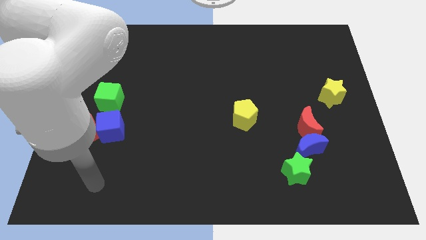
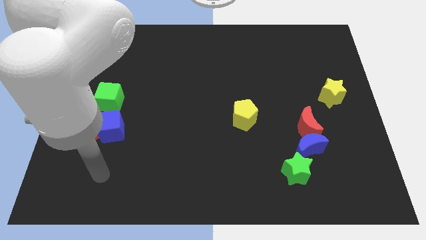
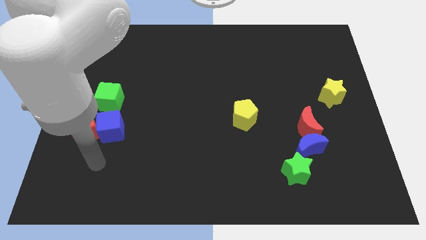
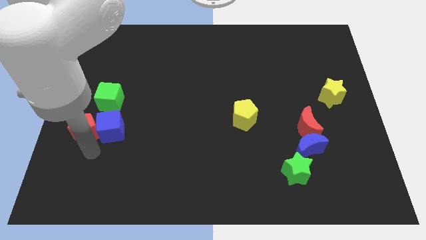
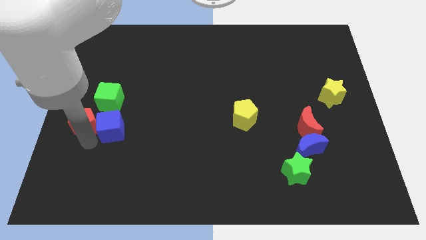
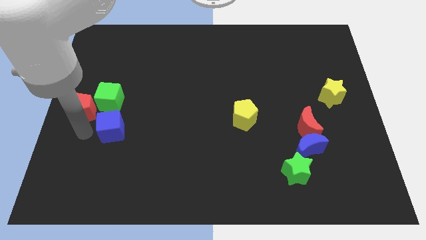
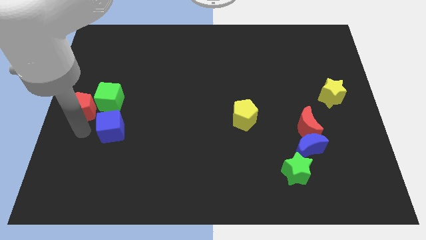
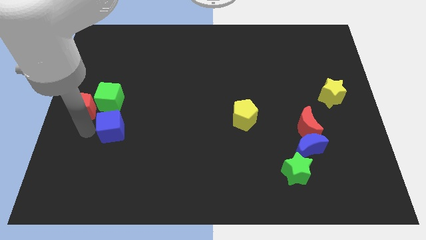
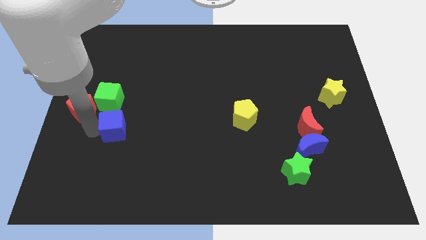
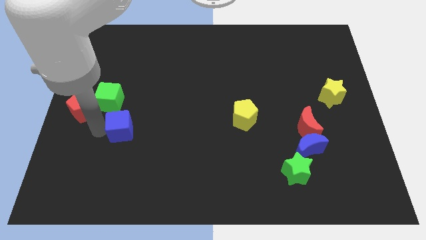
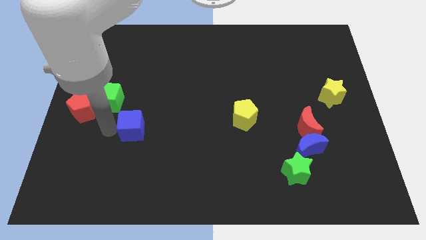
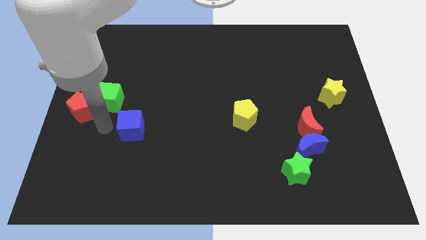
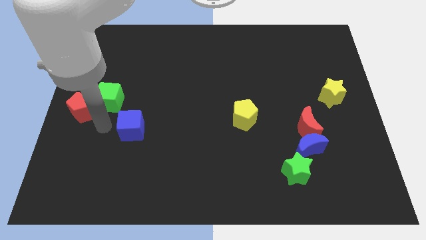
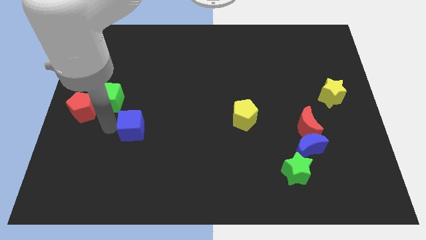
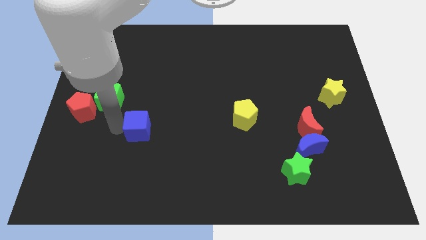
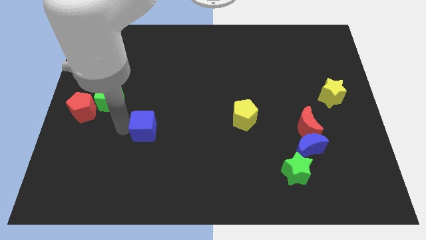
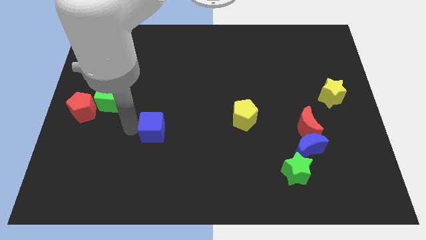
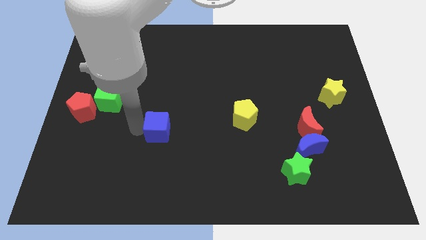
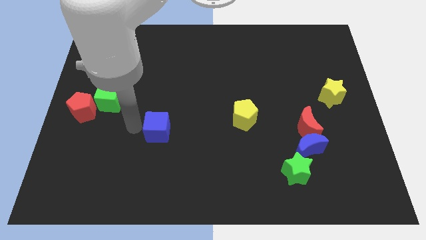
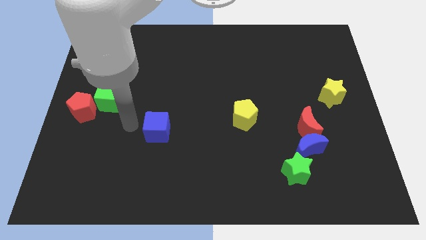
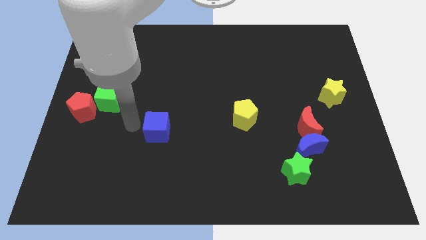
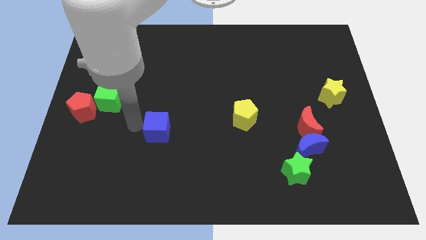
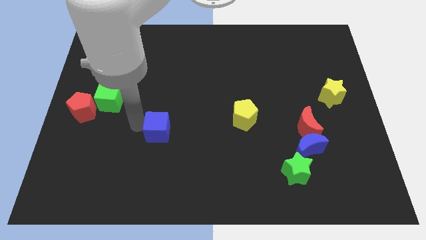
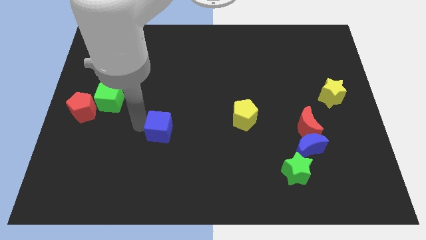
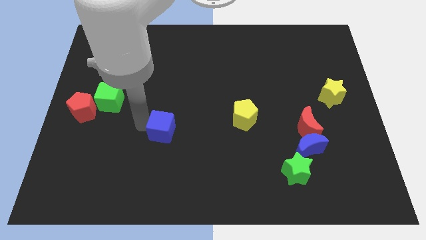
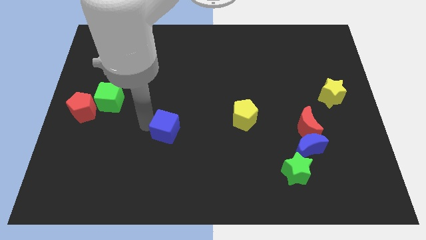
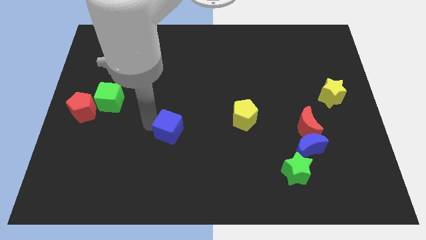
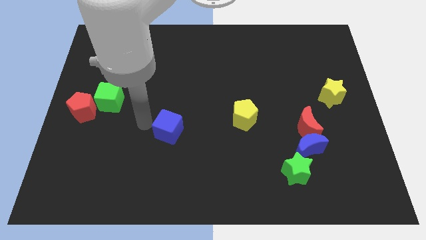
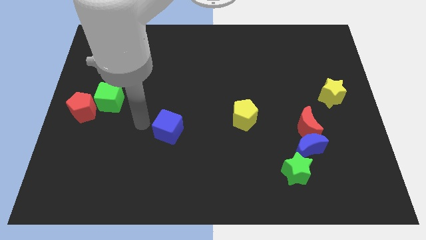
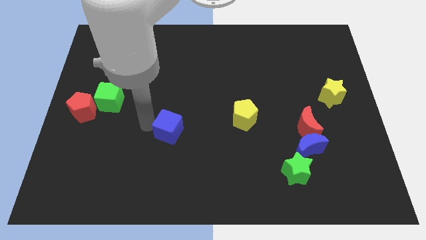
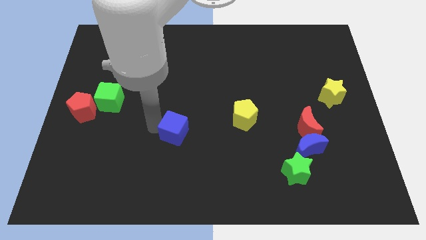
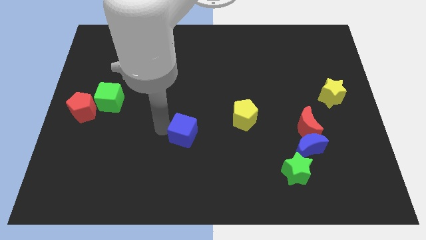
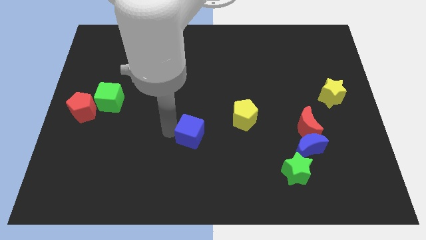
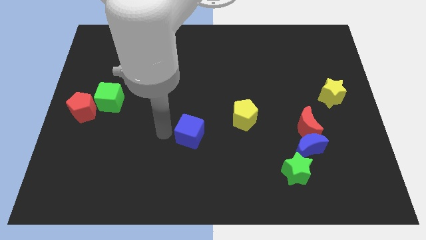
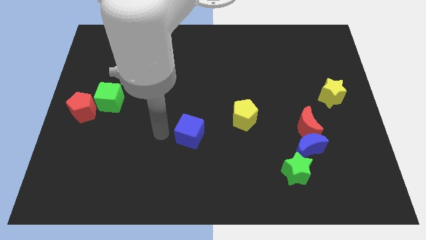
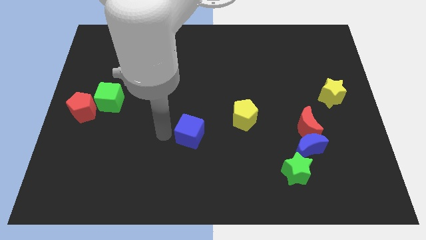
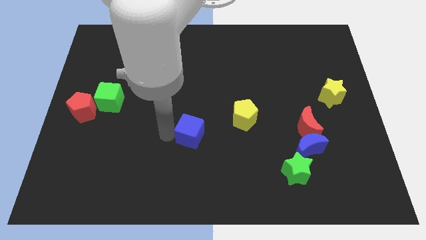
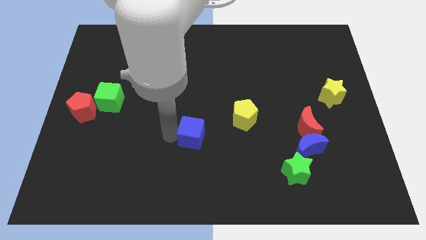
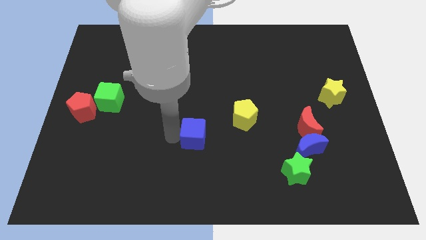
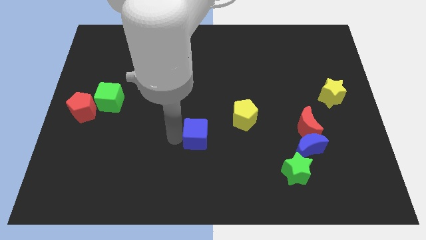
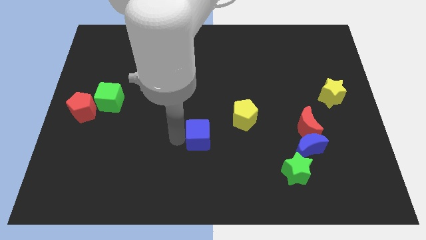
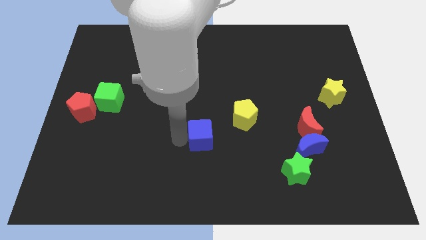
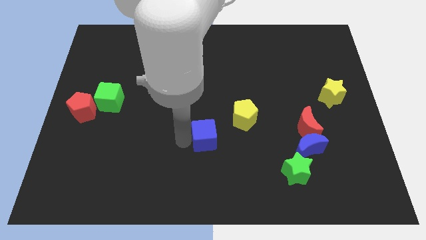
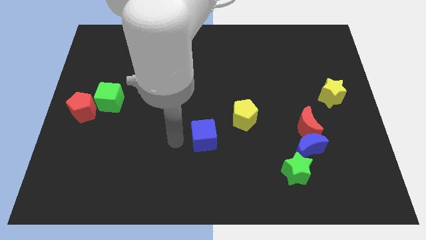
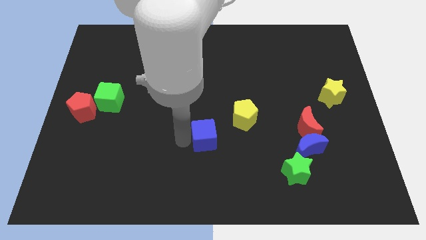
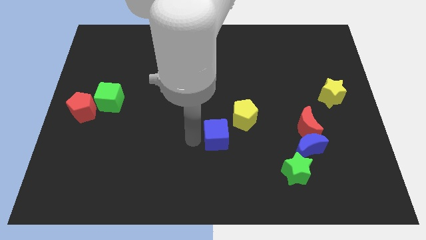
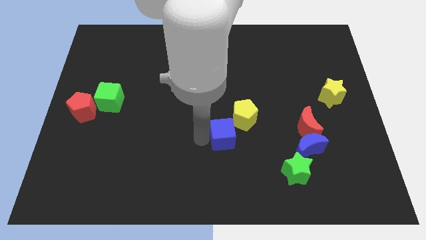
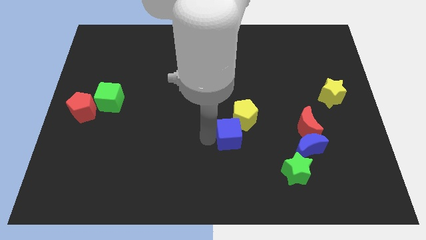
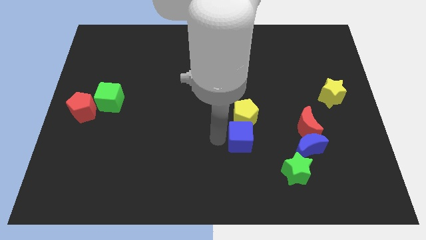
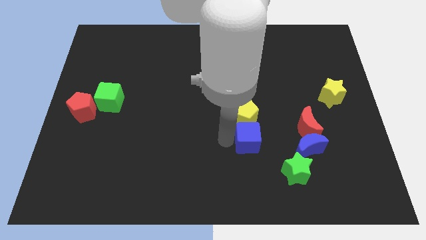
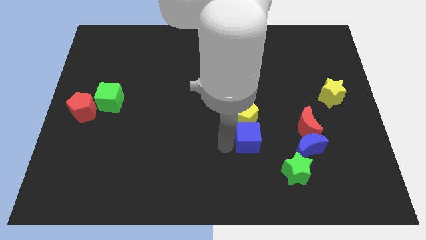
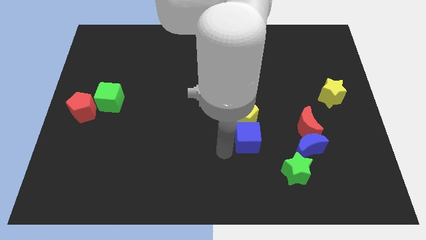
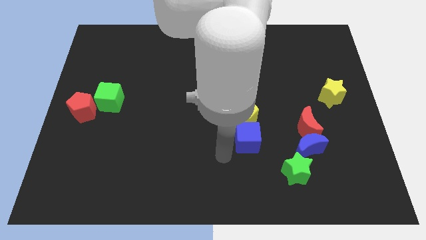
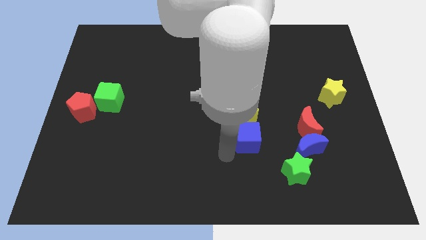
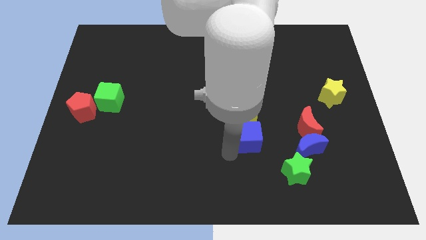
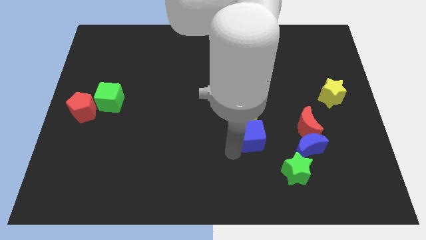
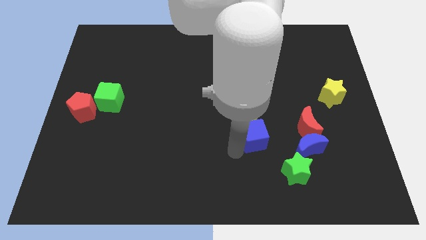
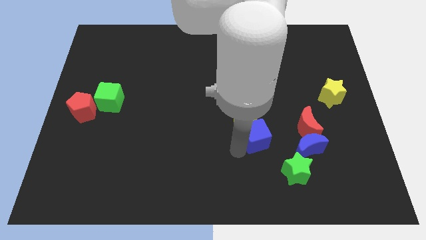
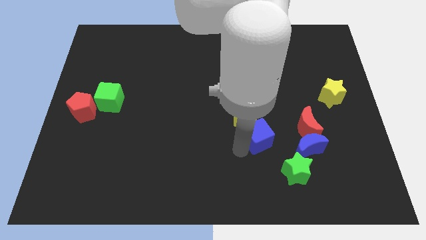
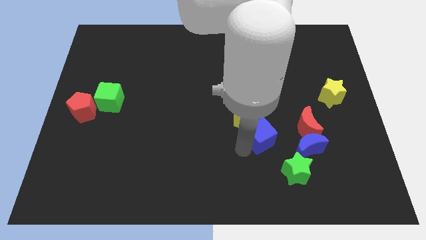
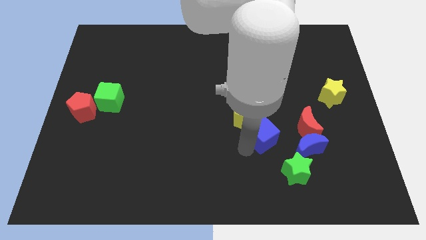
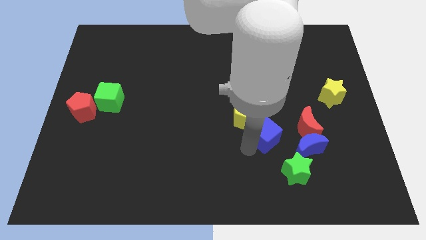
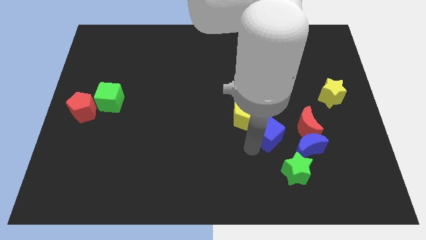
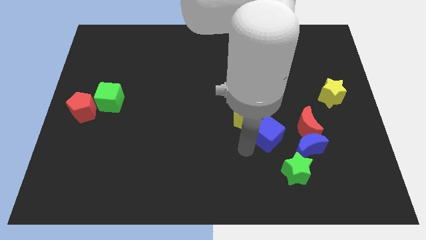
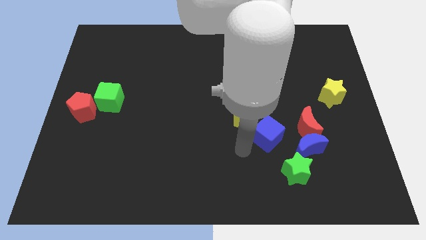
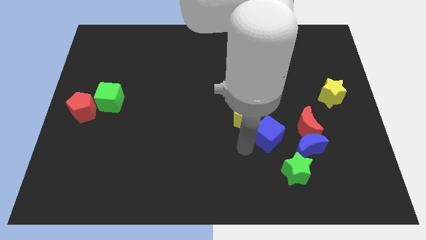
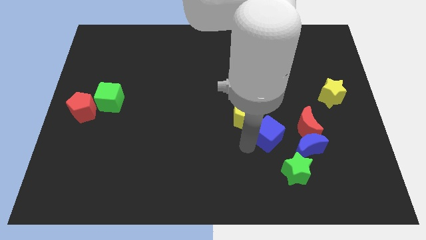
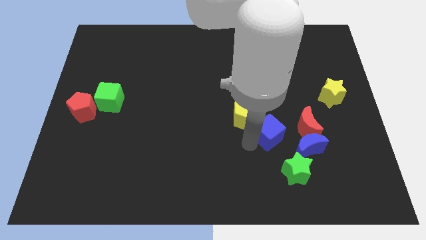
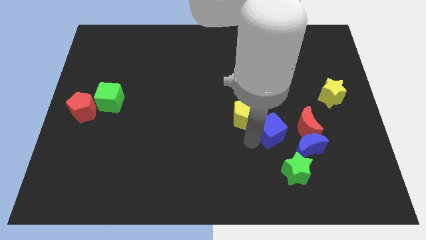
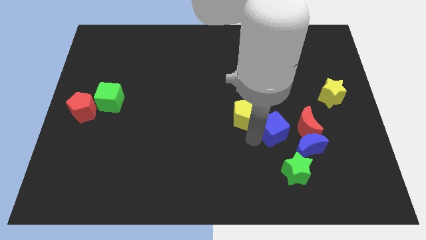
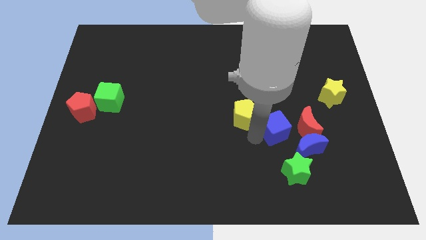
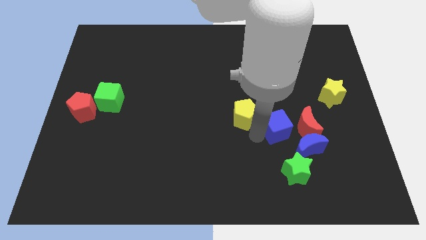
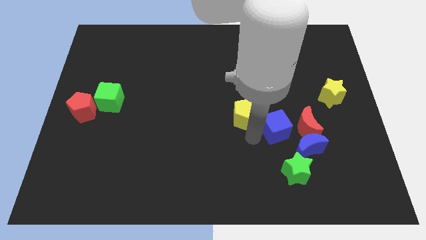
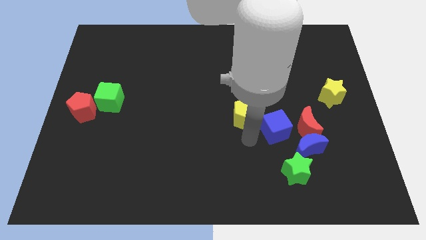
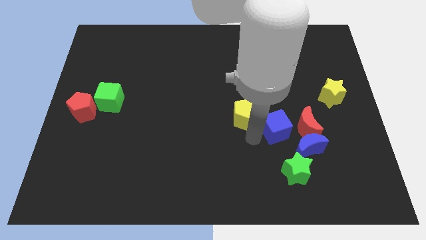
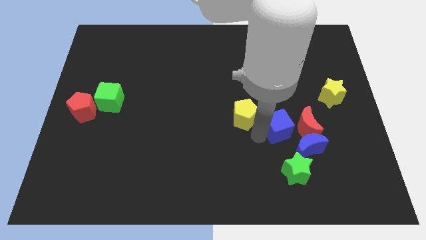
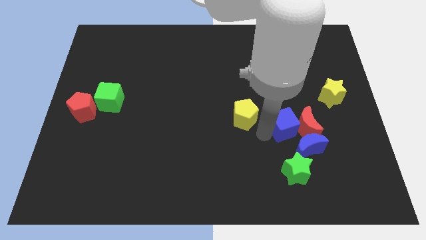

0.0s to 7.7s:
move the blue cube next to the red moon
